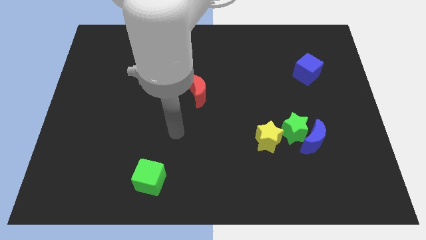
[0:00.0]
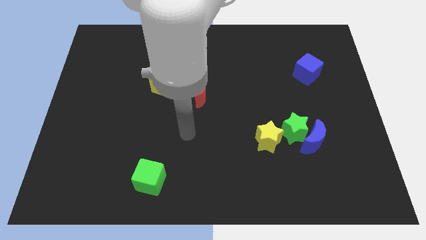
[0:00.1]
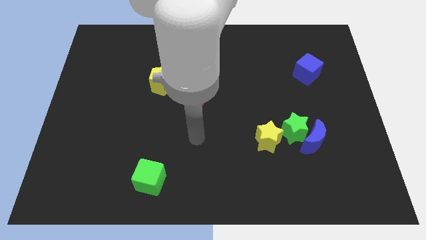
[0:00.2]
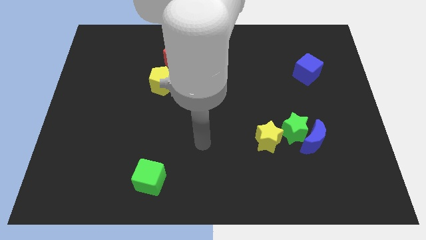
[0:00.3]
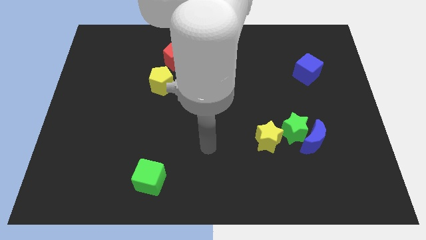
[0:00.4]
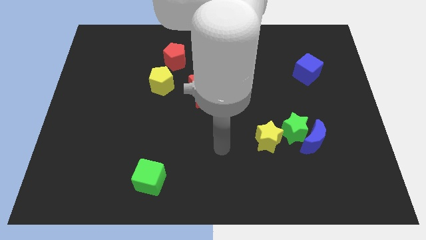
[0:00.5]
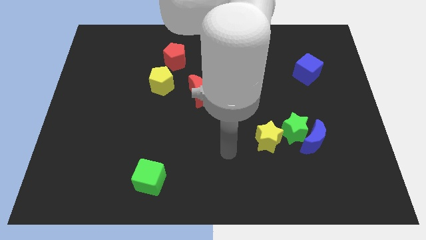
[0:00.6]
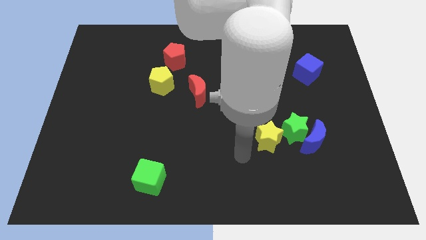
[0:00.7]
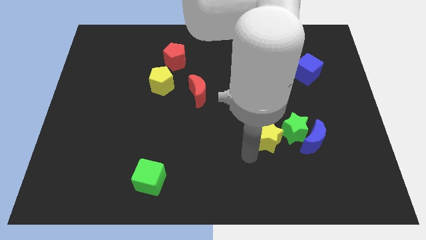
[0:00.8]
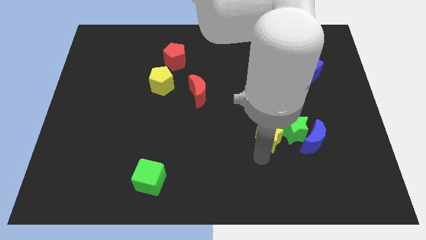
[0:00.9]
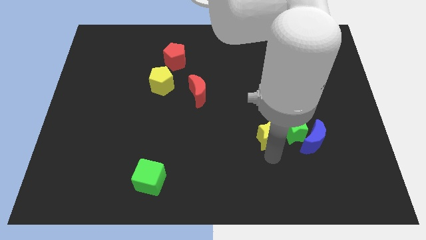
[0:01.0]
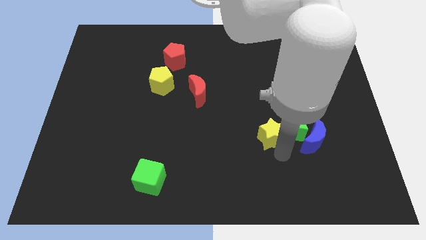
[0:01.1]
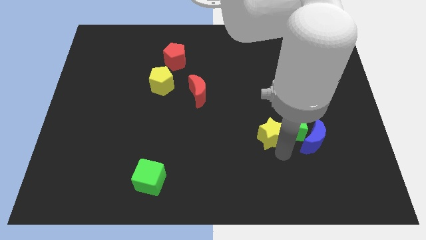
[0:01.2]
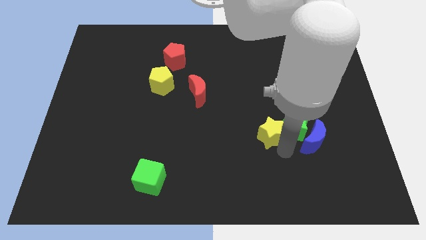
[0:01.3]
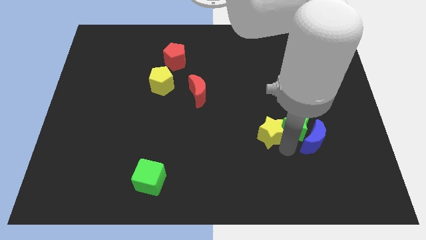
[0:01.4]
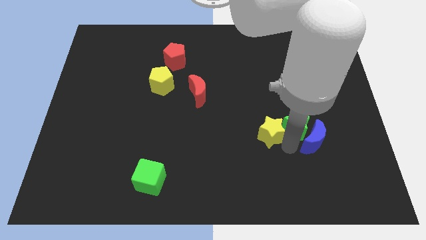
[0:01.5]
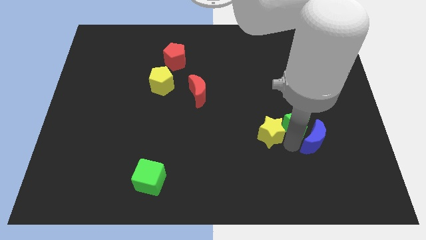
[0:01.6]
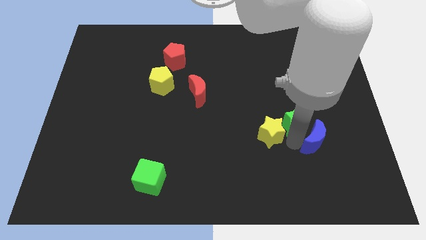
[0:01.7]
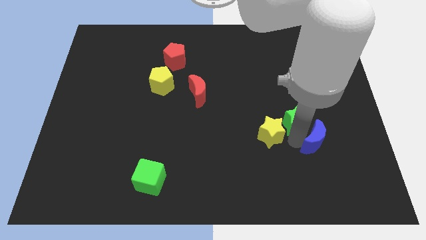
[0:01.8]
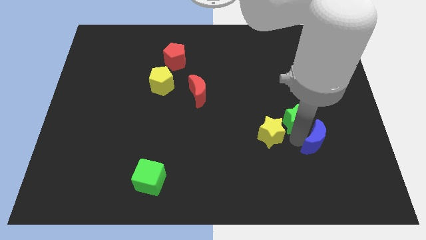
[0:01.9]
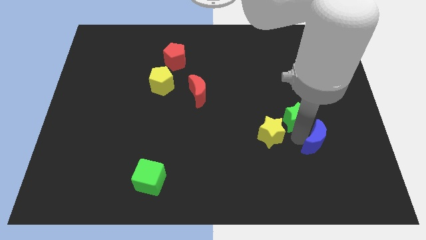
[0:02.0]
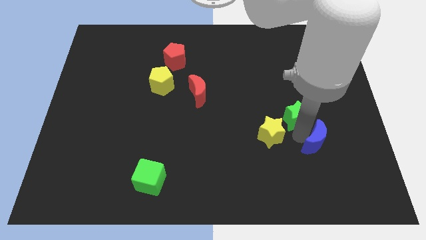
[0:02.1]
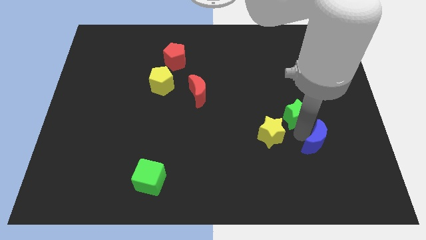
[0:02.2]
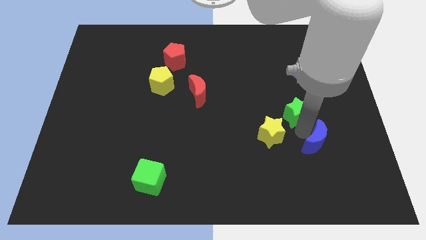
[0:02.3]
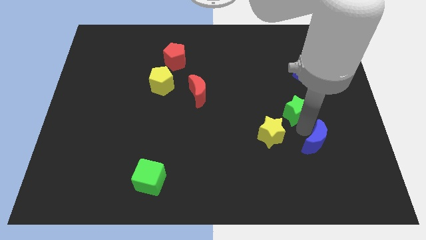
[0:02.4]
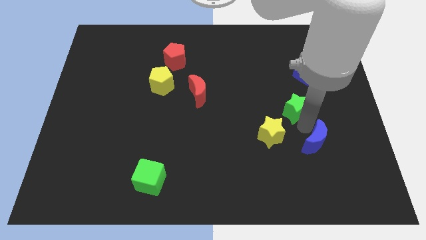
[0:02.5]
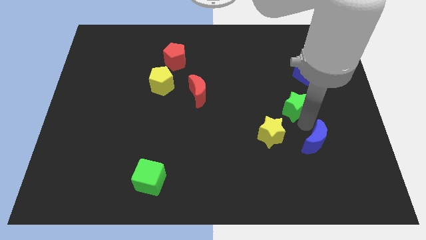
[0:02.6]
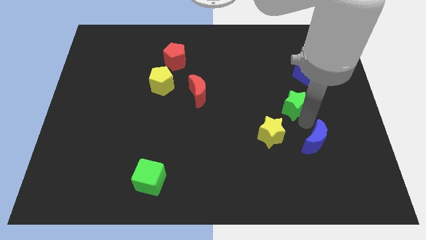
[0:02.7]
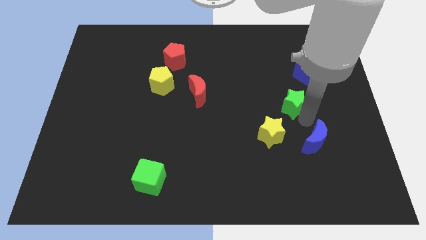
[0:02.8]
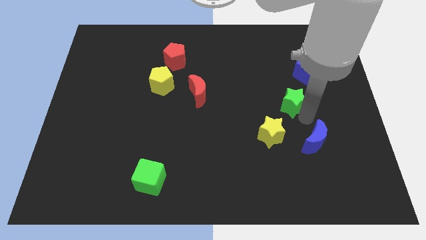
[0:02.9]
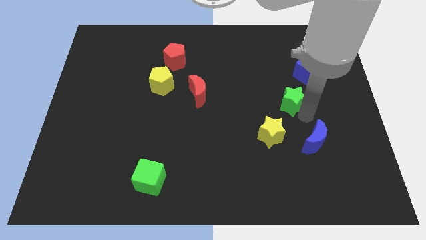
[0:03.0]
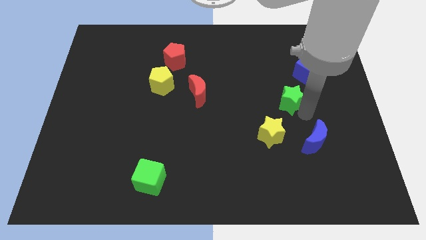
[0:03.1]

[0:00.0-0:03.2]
move the green star away from the blue moon and yellow star

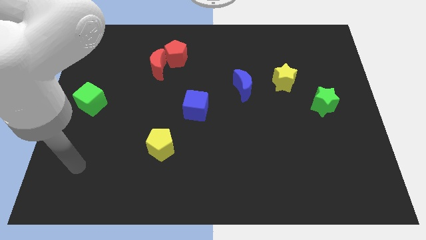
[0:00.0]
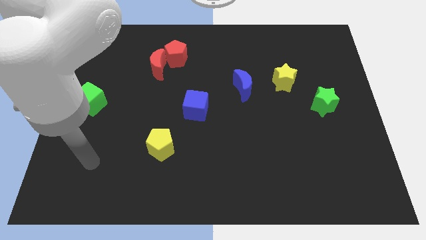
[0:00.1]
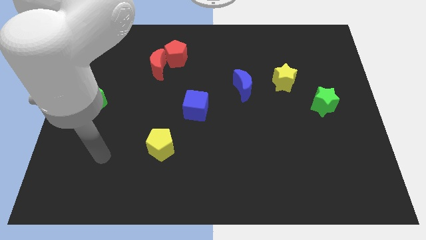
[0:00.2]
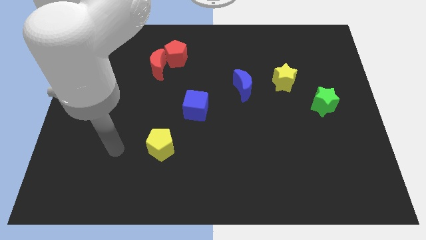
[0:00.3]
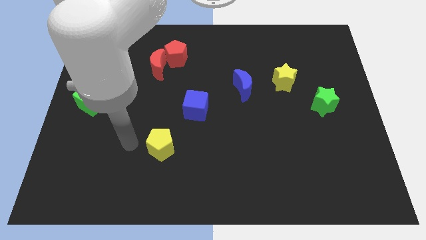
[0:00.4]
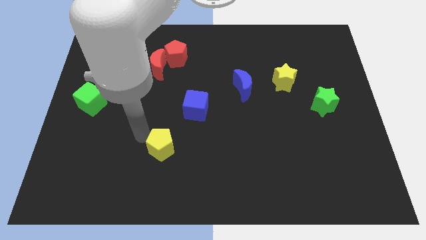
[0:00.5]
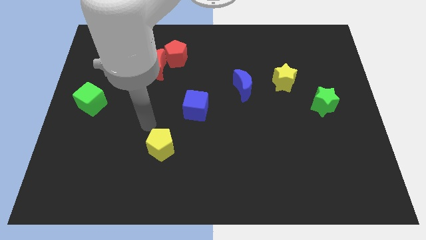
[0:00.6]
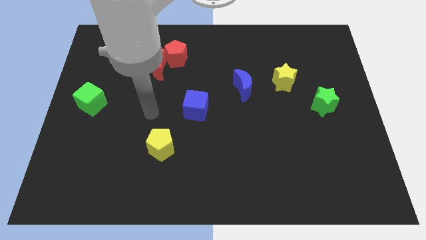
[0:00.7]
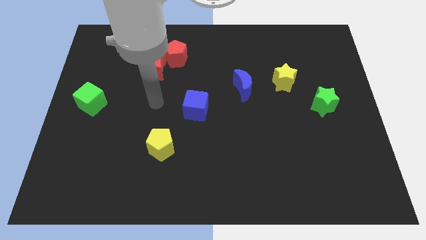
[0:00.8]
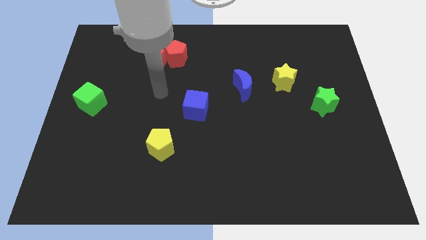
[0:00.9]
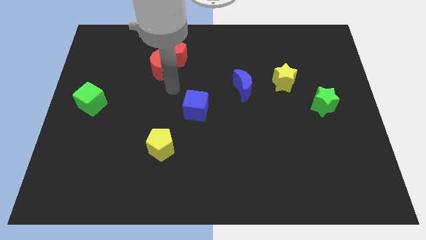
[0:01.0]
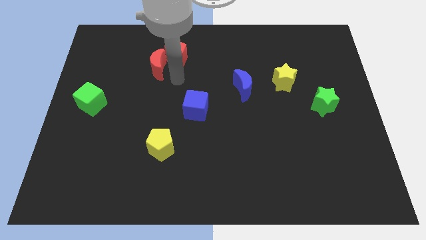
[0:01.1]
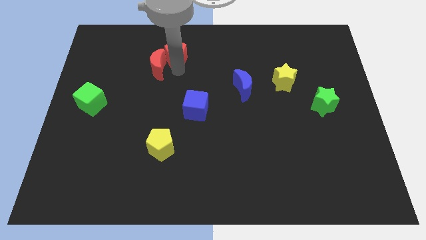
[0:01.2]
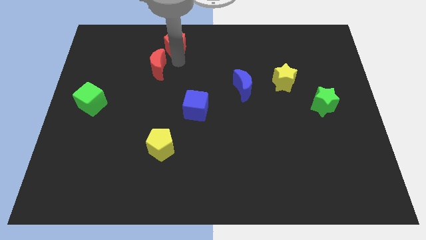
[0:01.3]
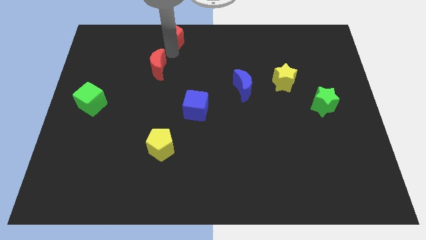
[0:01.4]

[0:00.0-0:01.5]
pull the red moon apart from the red pentagon

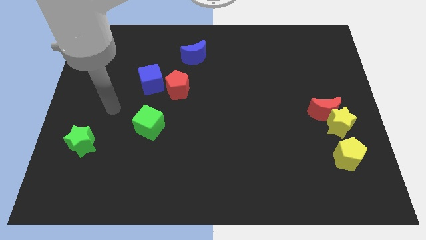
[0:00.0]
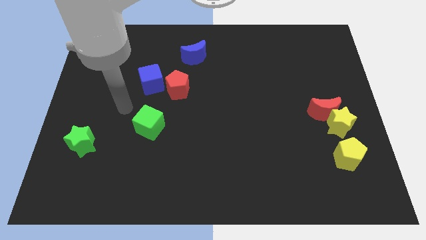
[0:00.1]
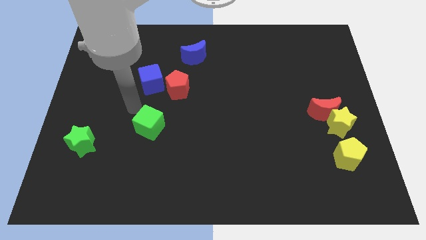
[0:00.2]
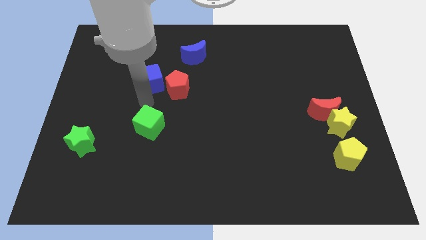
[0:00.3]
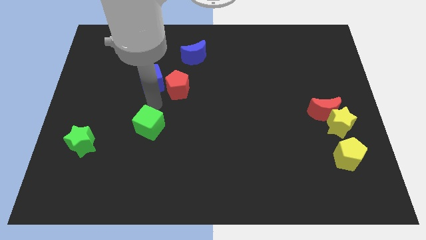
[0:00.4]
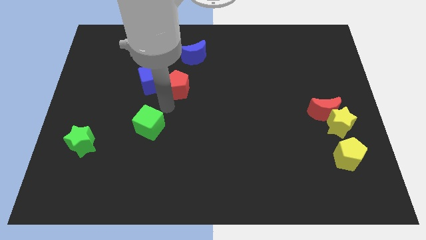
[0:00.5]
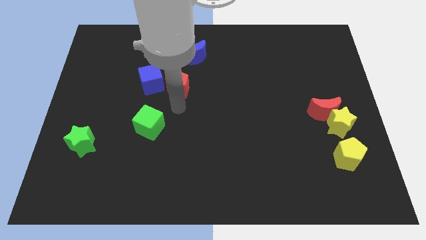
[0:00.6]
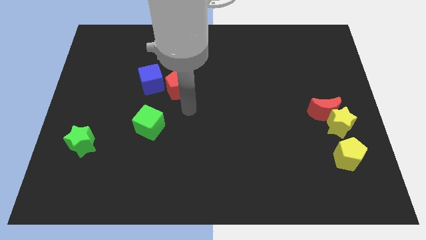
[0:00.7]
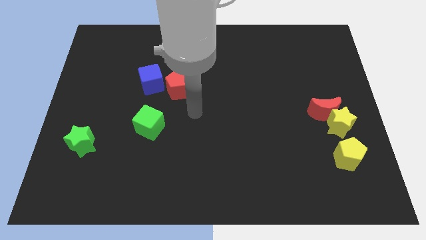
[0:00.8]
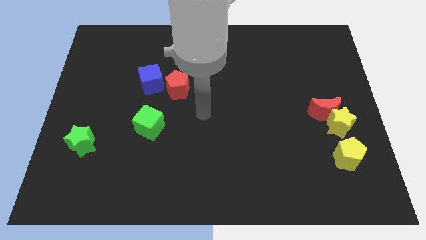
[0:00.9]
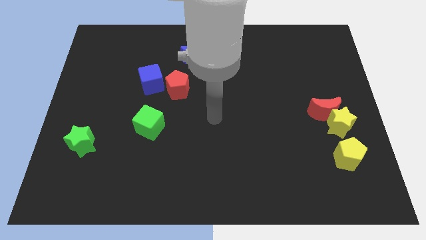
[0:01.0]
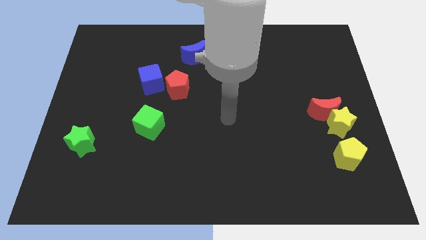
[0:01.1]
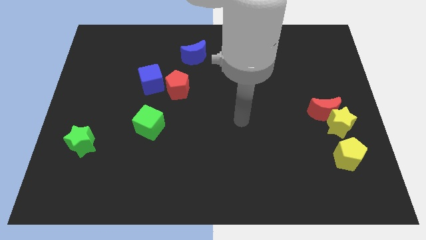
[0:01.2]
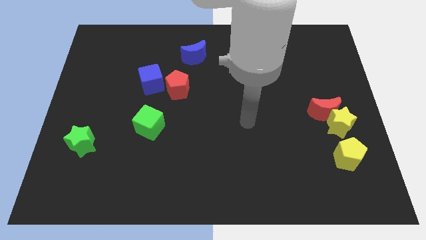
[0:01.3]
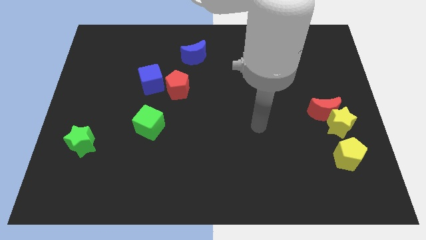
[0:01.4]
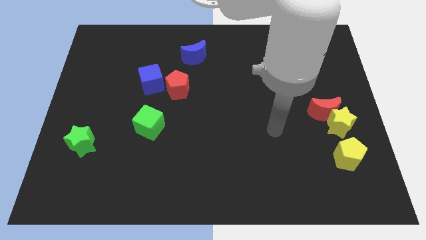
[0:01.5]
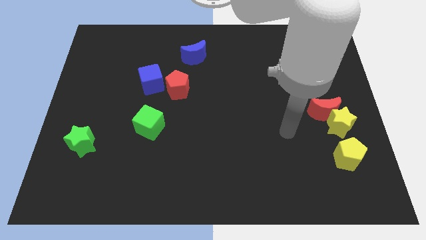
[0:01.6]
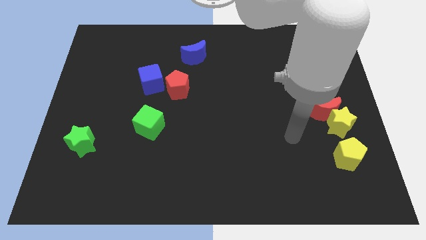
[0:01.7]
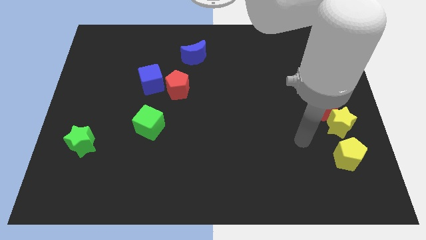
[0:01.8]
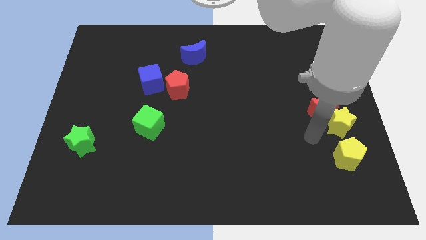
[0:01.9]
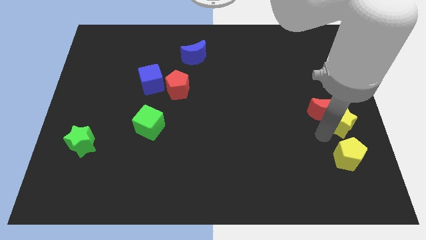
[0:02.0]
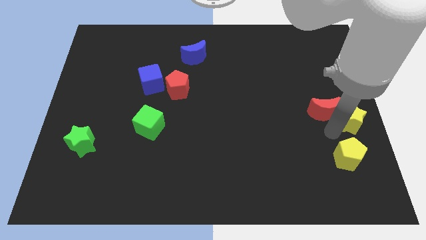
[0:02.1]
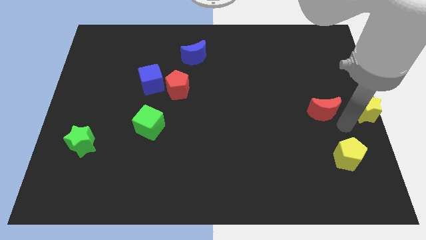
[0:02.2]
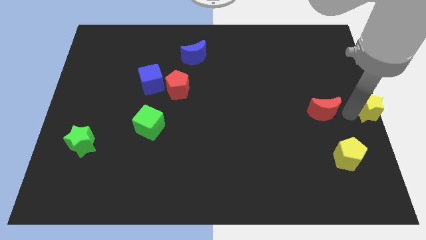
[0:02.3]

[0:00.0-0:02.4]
separate the red moon from the yellow star

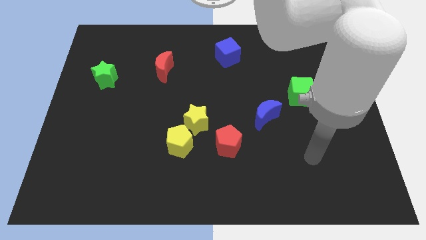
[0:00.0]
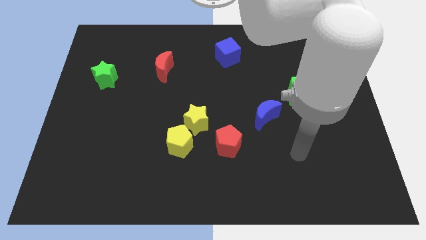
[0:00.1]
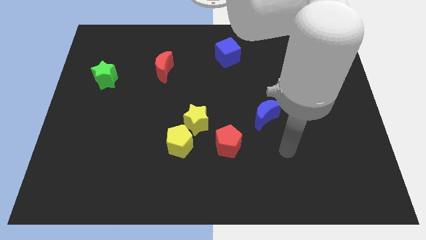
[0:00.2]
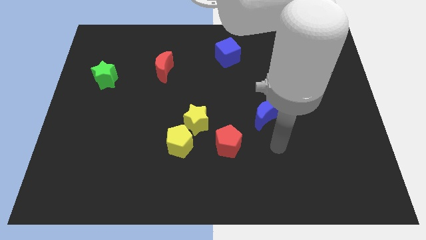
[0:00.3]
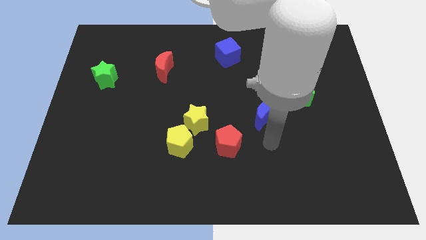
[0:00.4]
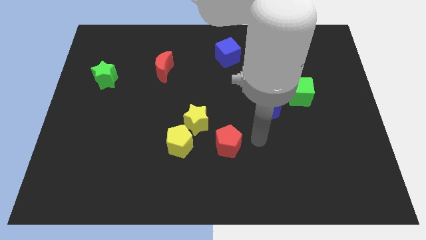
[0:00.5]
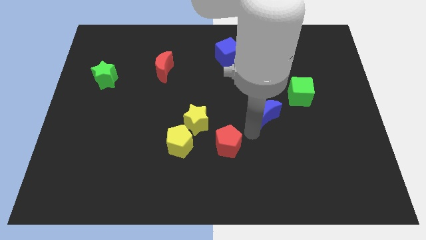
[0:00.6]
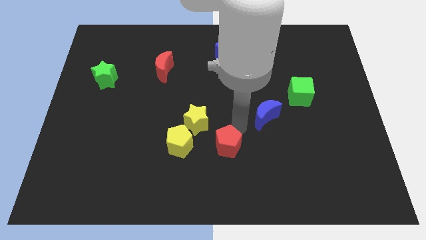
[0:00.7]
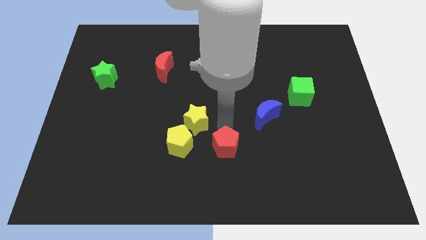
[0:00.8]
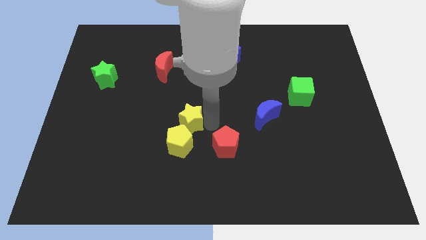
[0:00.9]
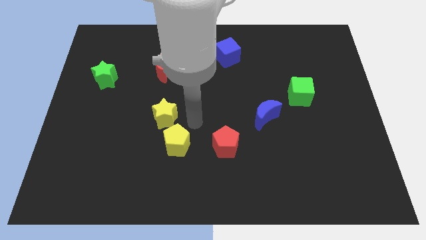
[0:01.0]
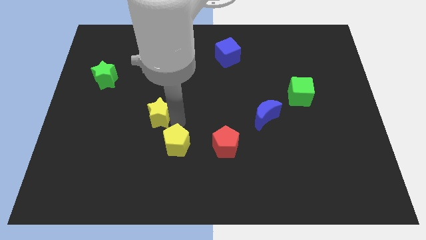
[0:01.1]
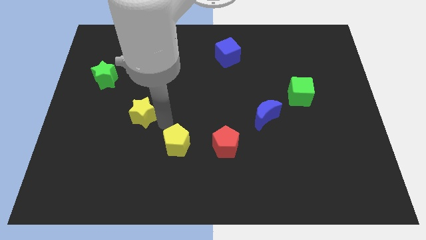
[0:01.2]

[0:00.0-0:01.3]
move the yellow pentagon away from the yellow star

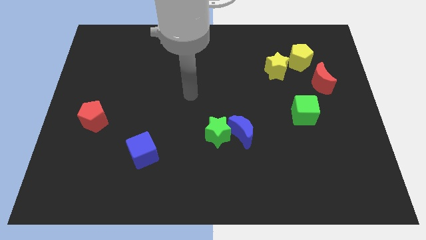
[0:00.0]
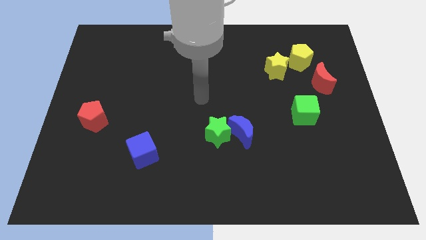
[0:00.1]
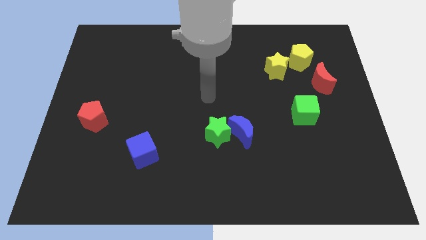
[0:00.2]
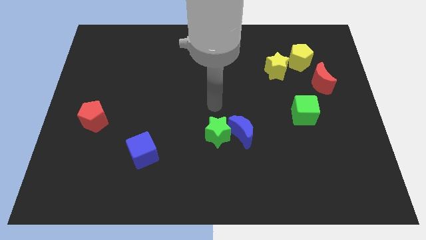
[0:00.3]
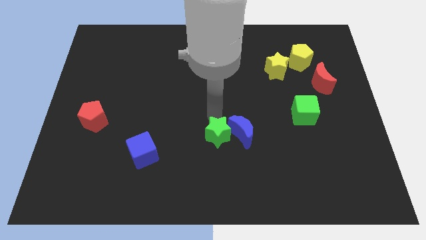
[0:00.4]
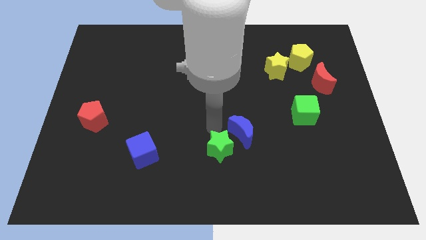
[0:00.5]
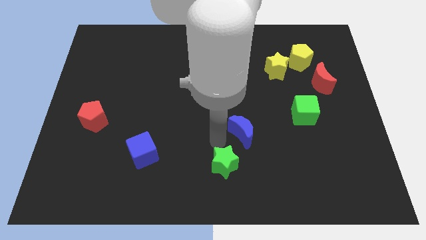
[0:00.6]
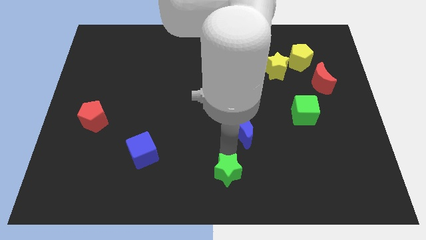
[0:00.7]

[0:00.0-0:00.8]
separate the blue moon from the green star
